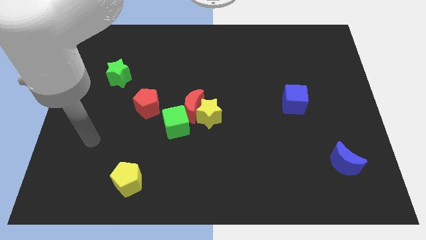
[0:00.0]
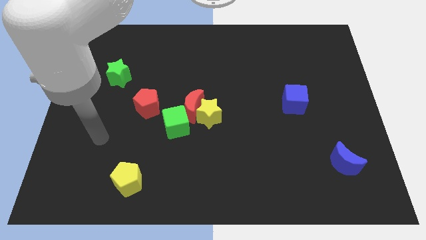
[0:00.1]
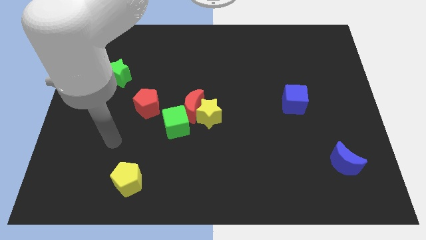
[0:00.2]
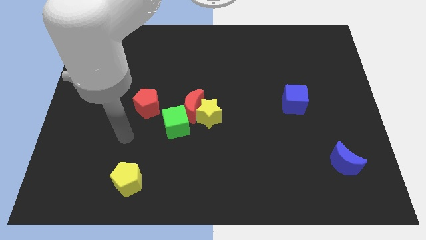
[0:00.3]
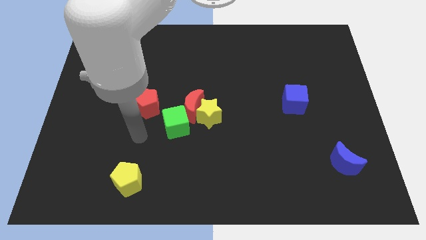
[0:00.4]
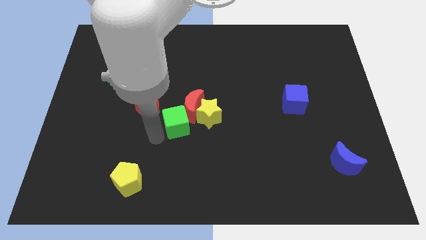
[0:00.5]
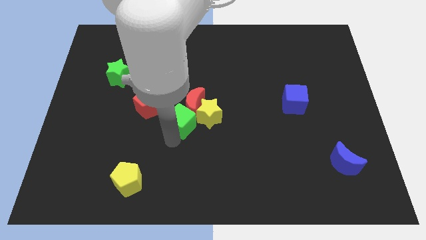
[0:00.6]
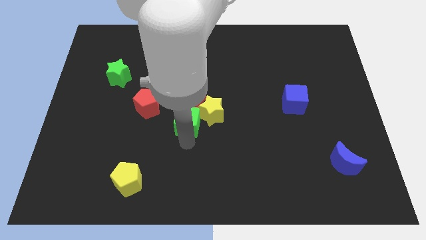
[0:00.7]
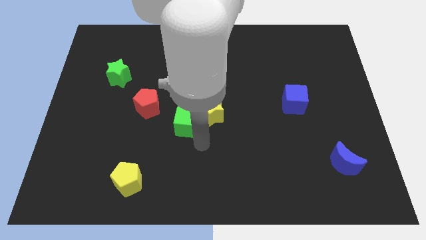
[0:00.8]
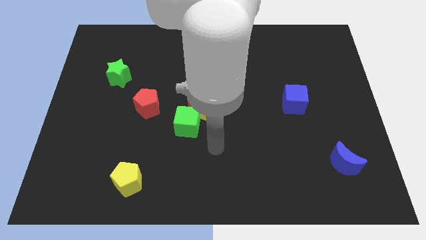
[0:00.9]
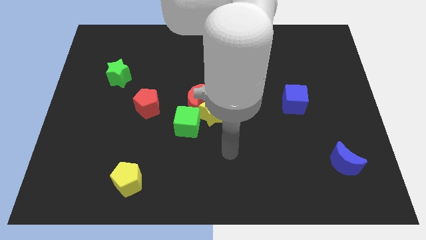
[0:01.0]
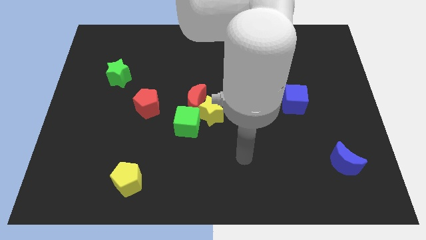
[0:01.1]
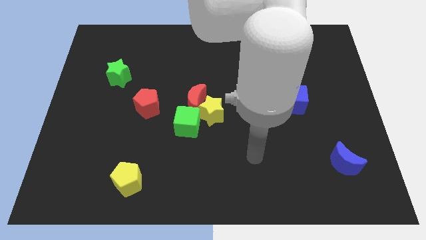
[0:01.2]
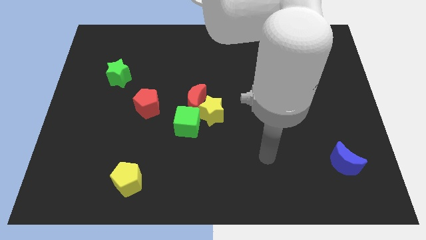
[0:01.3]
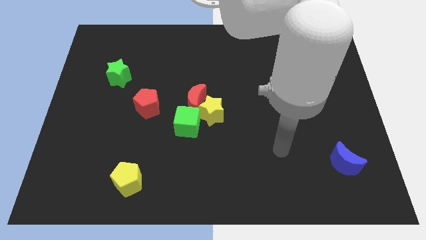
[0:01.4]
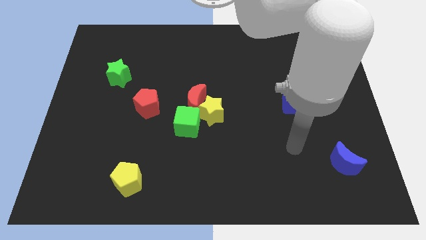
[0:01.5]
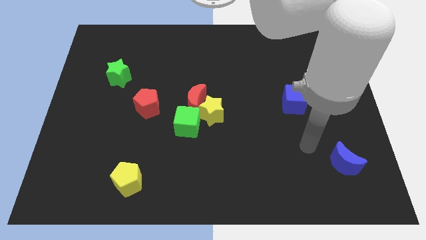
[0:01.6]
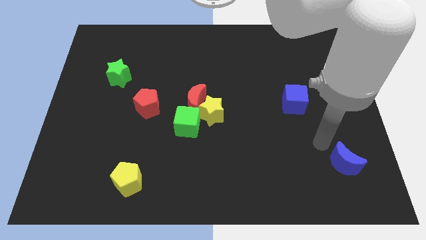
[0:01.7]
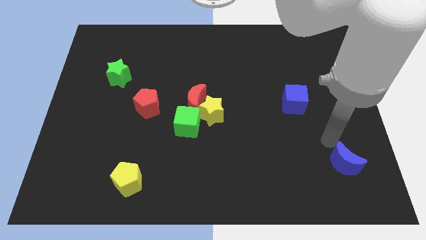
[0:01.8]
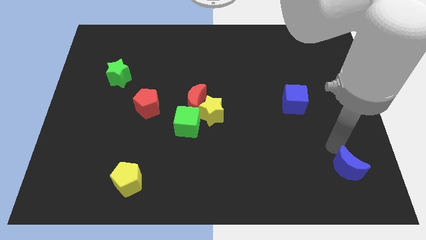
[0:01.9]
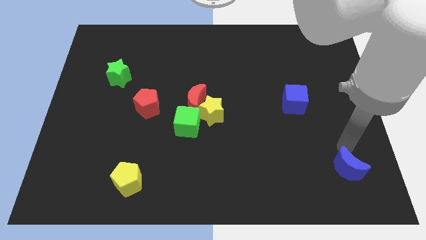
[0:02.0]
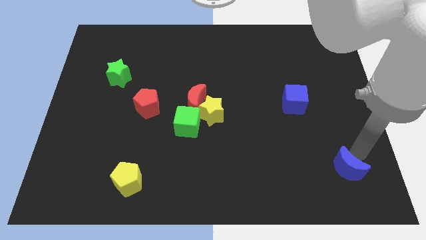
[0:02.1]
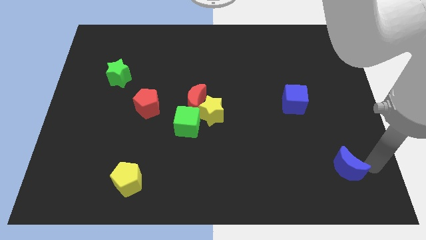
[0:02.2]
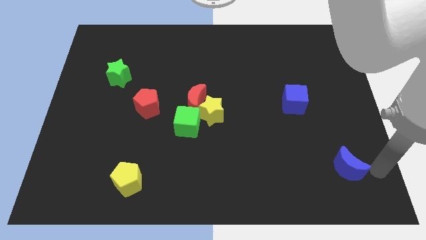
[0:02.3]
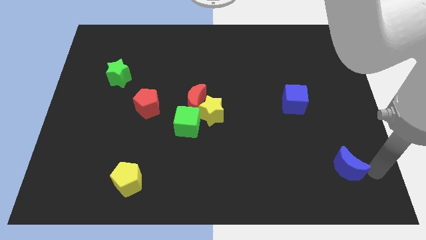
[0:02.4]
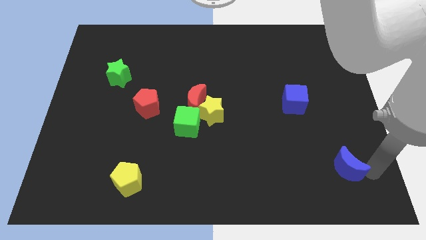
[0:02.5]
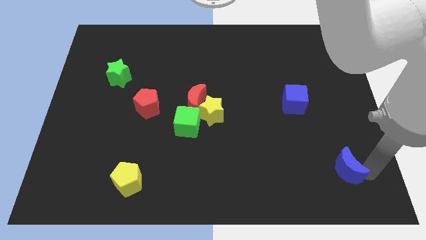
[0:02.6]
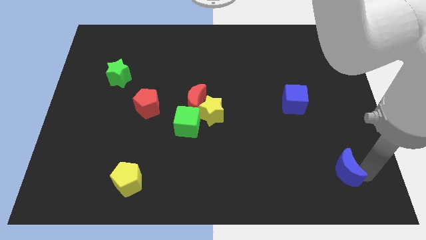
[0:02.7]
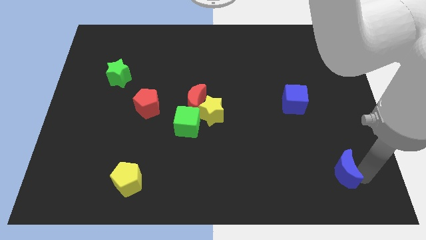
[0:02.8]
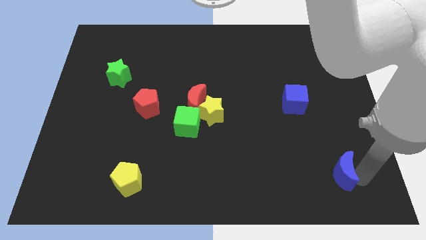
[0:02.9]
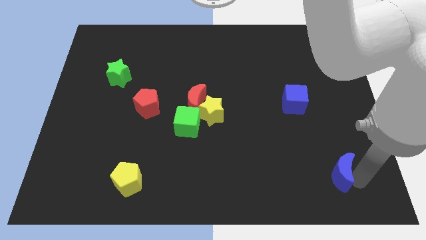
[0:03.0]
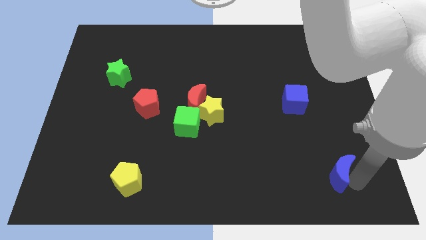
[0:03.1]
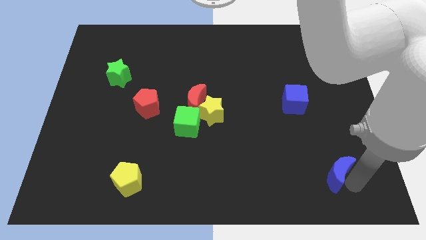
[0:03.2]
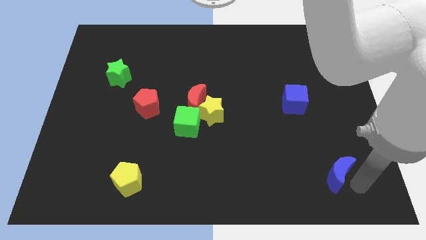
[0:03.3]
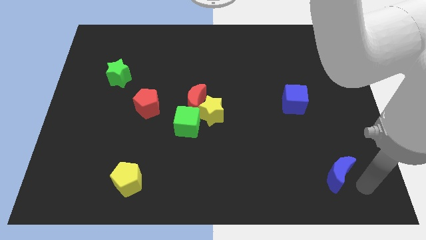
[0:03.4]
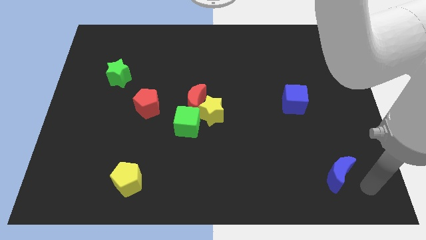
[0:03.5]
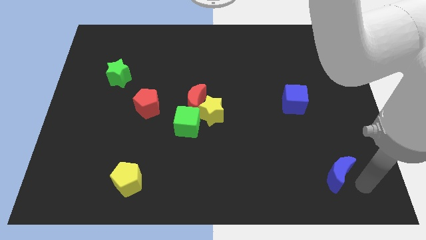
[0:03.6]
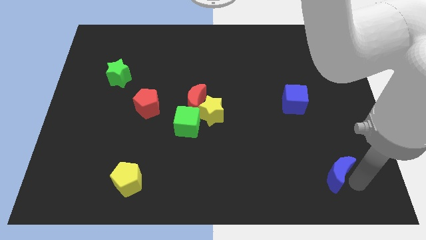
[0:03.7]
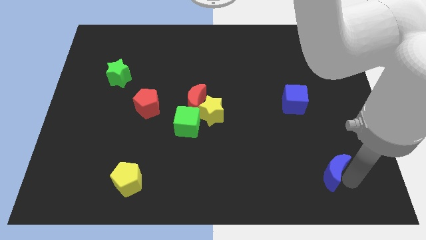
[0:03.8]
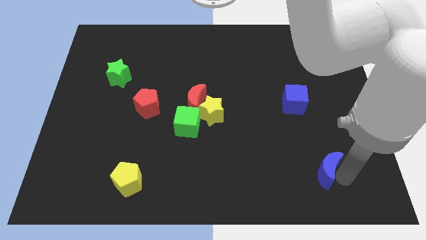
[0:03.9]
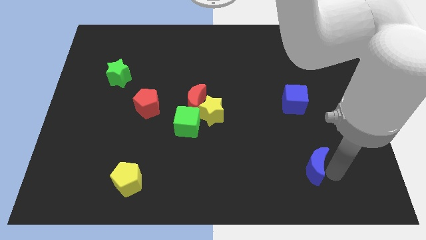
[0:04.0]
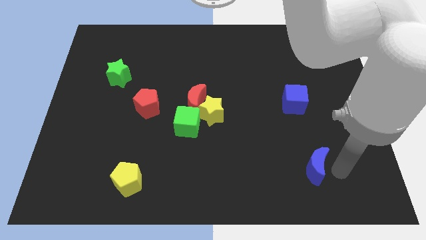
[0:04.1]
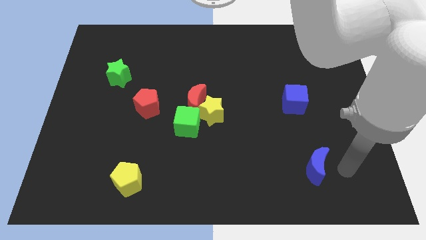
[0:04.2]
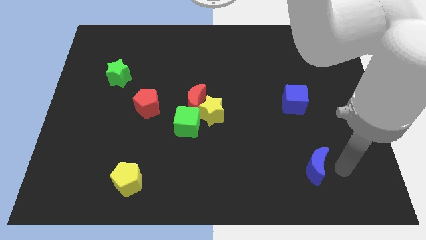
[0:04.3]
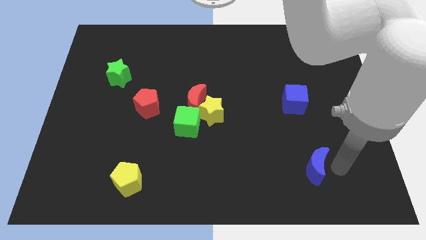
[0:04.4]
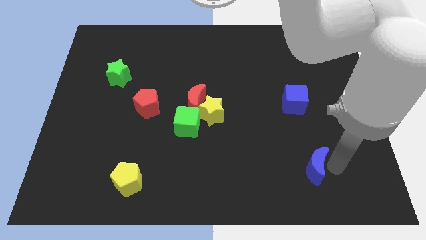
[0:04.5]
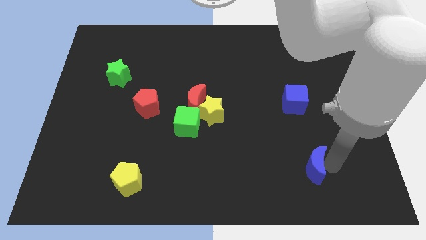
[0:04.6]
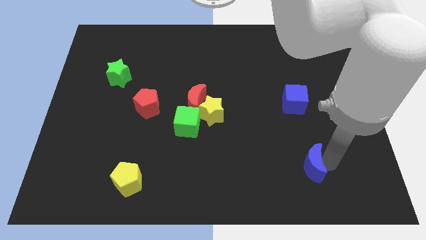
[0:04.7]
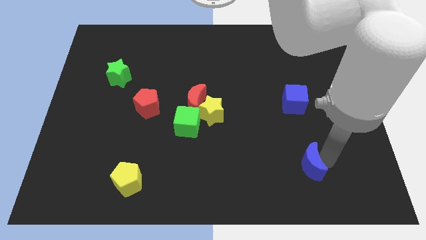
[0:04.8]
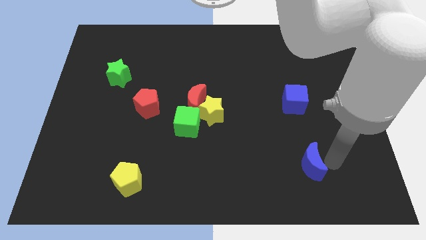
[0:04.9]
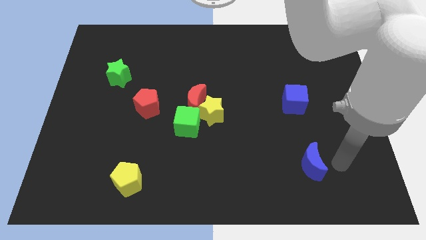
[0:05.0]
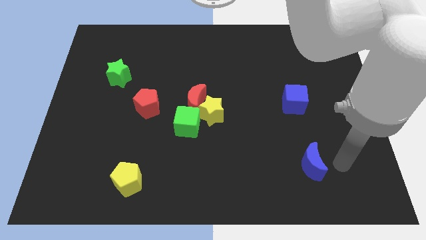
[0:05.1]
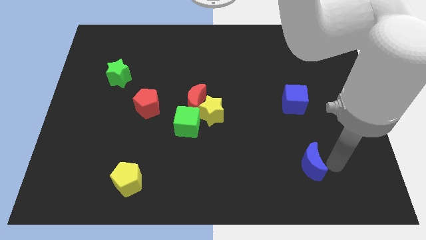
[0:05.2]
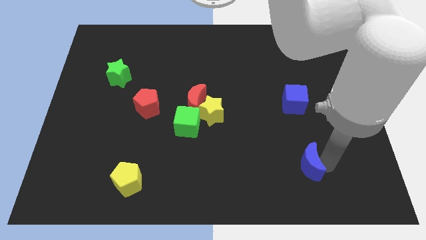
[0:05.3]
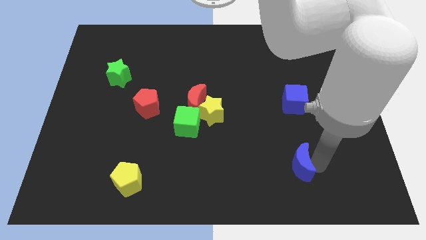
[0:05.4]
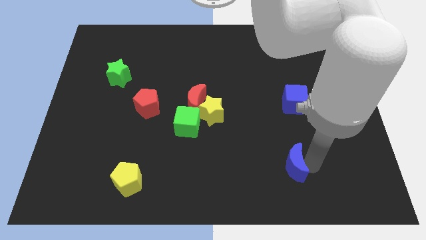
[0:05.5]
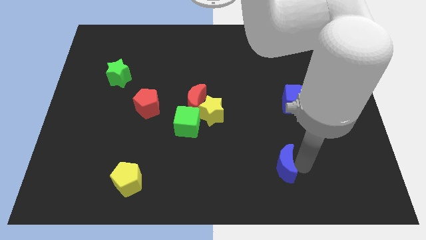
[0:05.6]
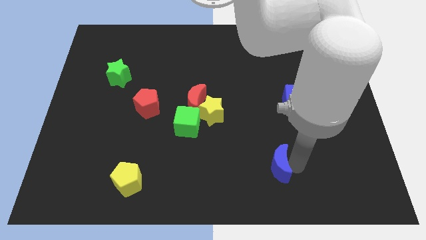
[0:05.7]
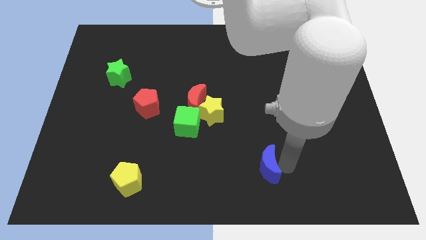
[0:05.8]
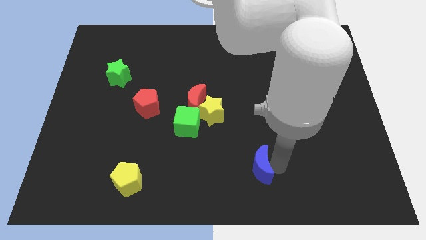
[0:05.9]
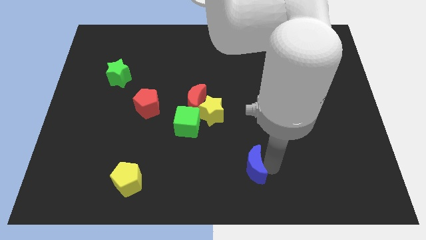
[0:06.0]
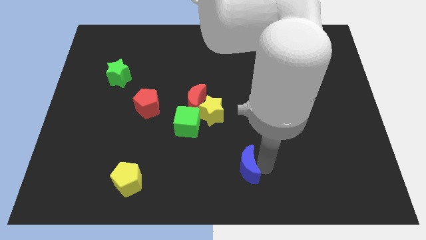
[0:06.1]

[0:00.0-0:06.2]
slide the blue moon to the left

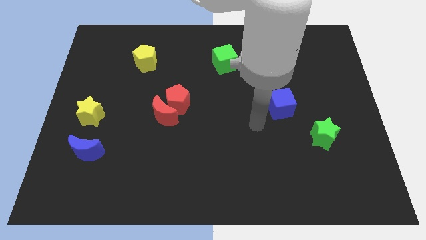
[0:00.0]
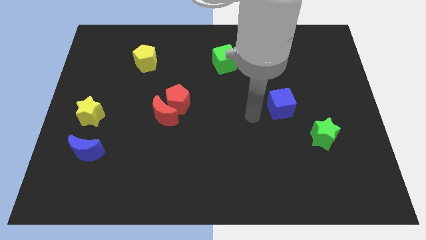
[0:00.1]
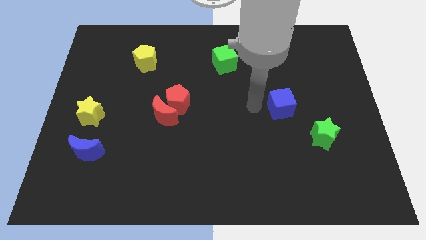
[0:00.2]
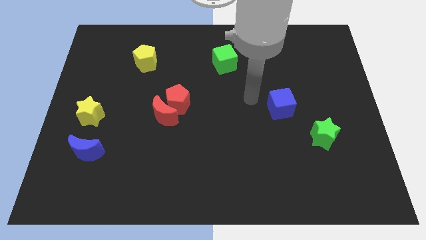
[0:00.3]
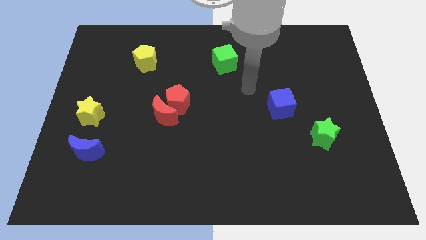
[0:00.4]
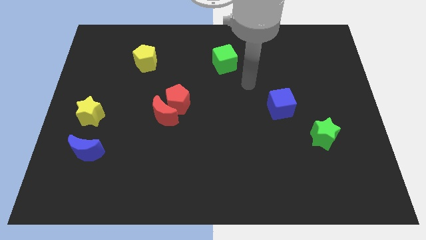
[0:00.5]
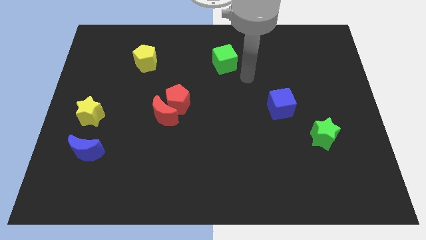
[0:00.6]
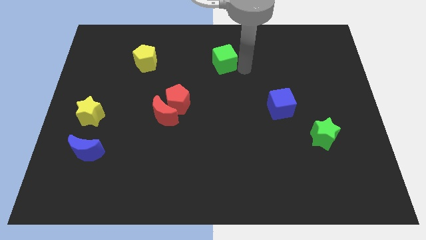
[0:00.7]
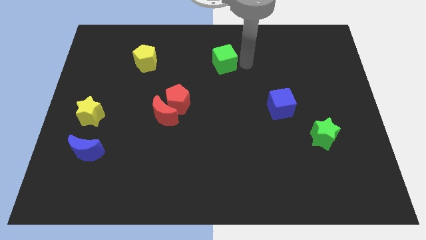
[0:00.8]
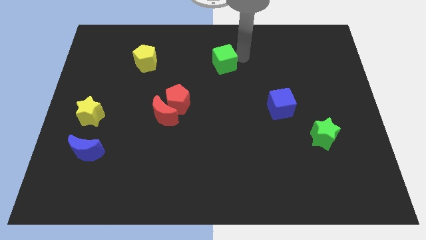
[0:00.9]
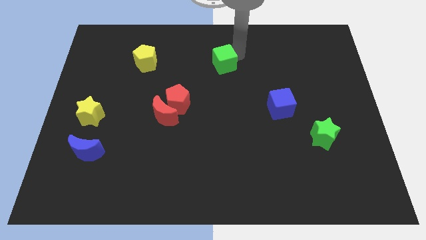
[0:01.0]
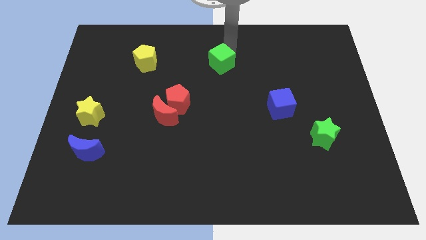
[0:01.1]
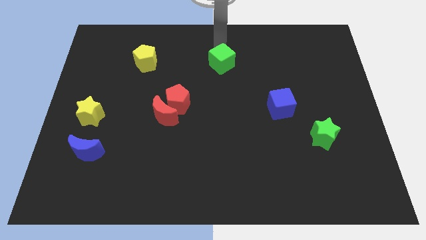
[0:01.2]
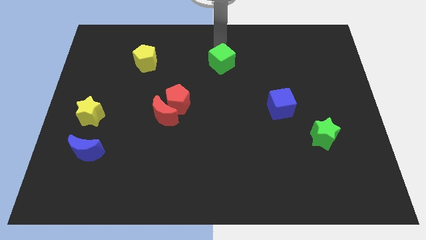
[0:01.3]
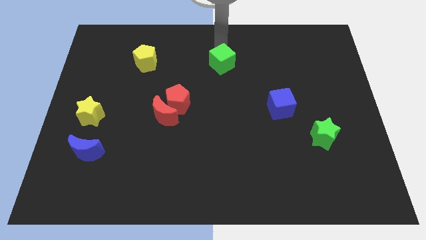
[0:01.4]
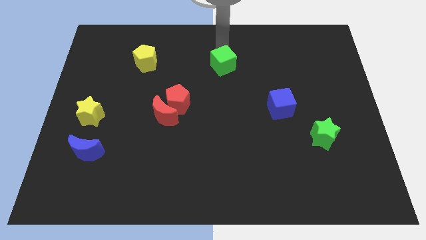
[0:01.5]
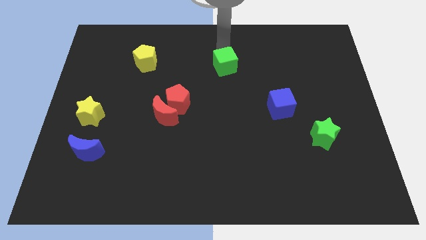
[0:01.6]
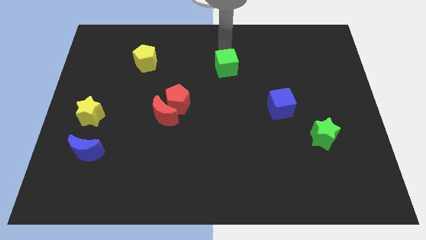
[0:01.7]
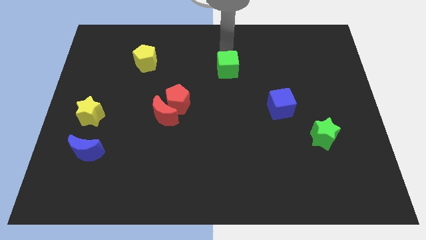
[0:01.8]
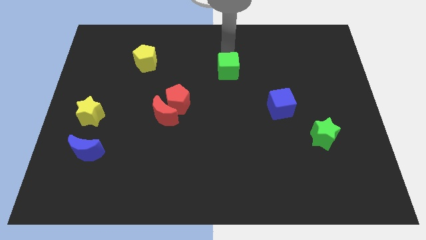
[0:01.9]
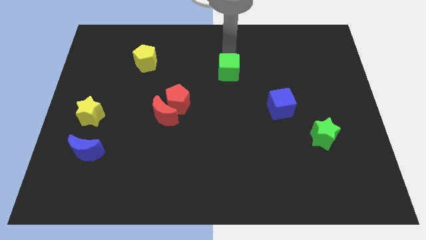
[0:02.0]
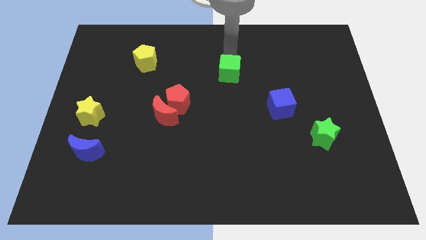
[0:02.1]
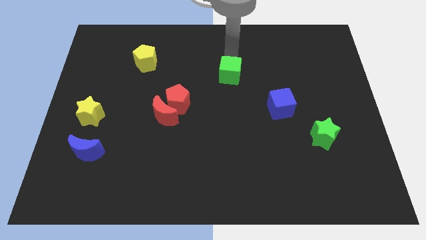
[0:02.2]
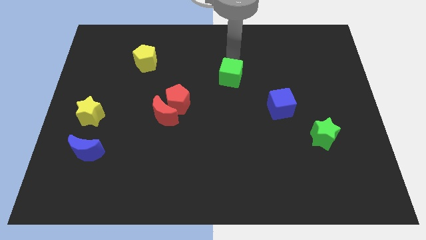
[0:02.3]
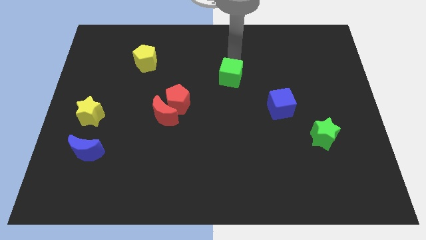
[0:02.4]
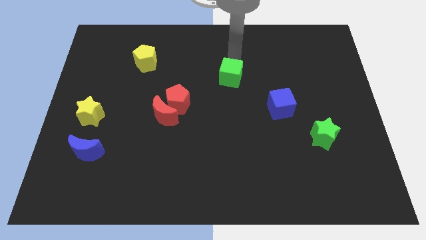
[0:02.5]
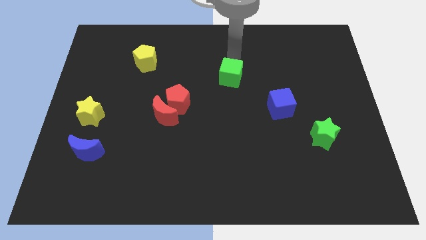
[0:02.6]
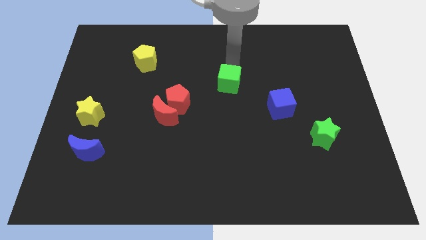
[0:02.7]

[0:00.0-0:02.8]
move the green cube somewhat down
